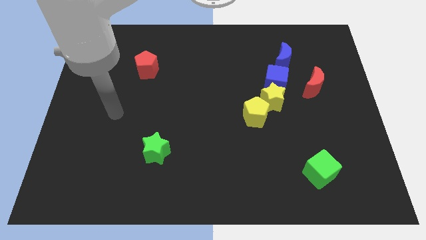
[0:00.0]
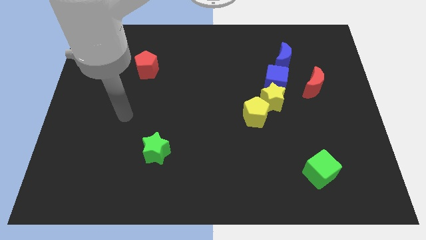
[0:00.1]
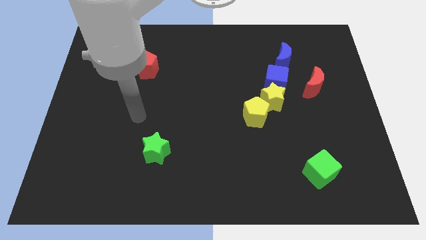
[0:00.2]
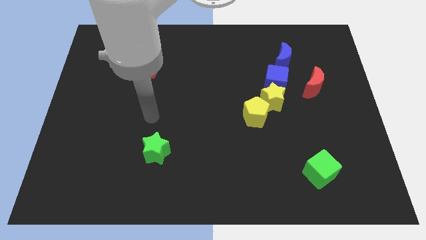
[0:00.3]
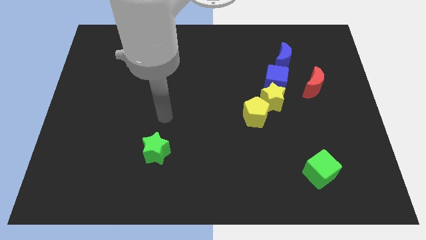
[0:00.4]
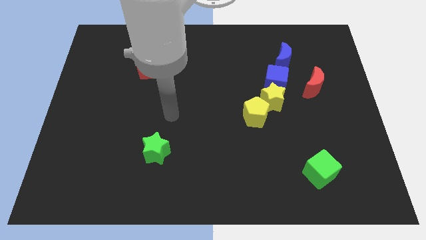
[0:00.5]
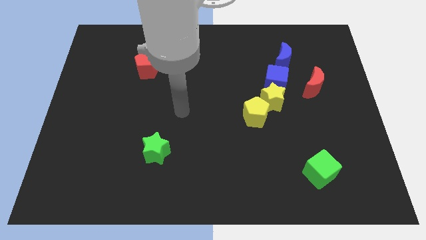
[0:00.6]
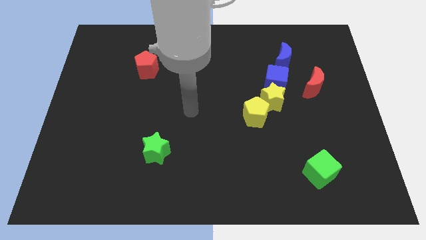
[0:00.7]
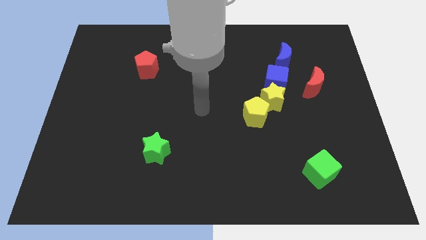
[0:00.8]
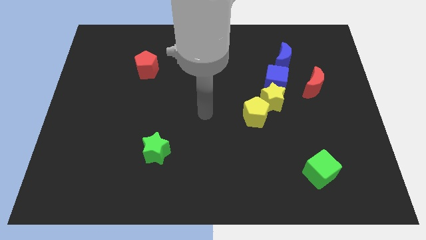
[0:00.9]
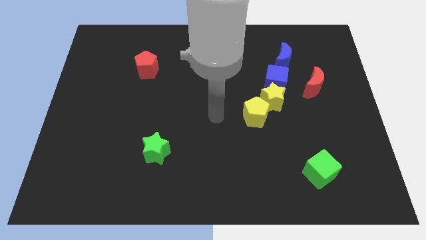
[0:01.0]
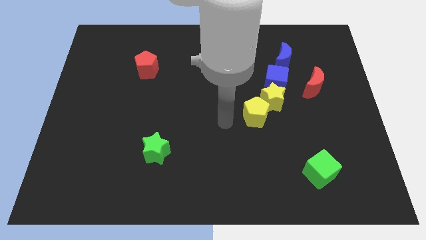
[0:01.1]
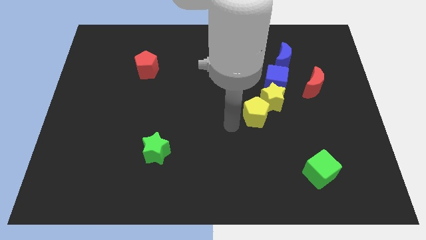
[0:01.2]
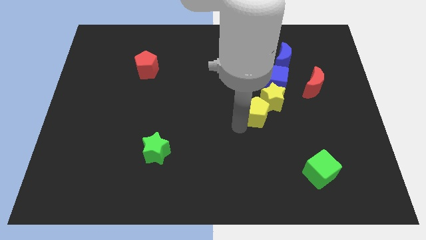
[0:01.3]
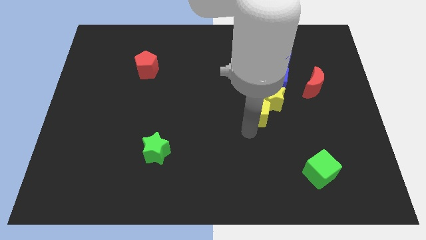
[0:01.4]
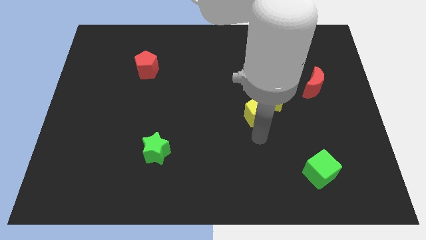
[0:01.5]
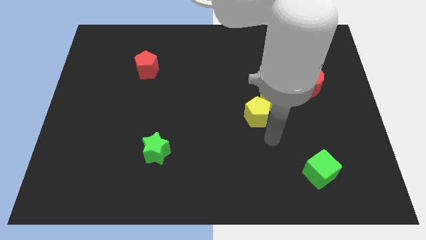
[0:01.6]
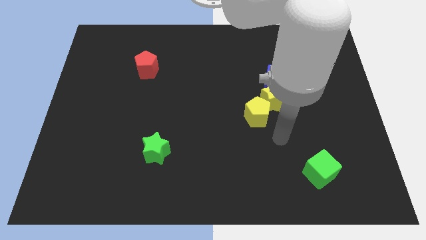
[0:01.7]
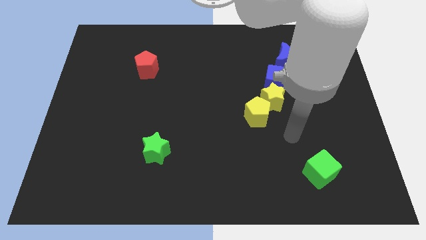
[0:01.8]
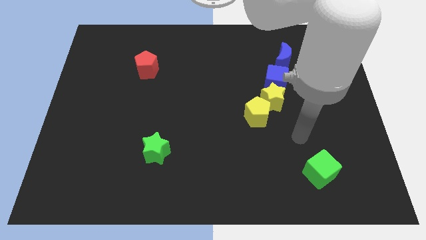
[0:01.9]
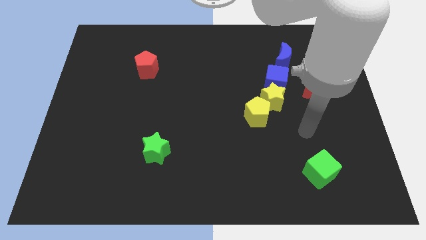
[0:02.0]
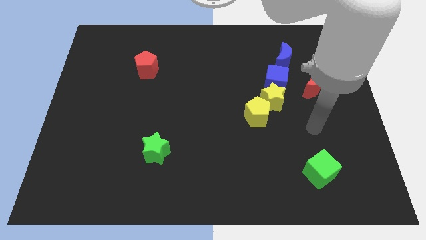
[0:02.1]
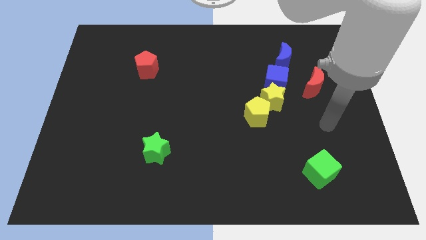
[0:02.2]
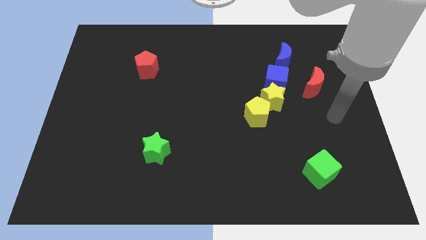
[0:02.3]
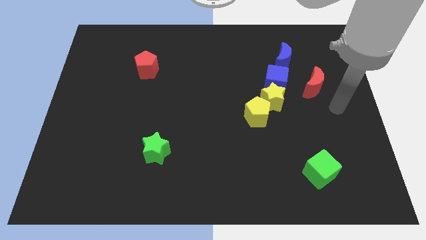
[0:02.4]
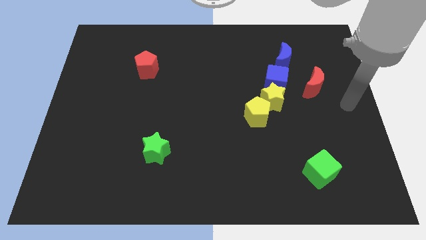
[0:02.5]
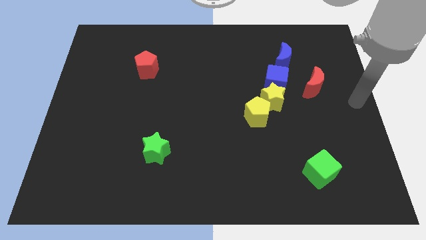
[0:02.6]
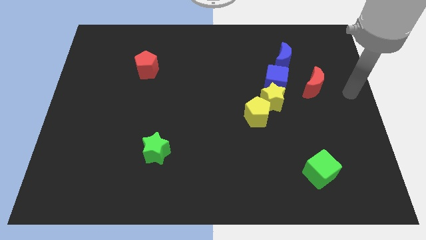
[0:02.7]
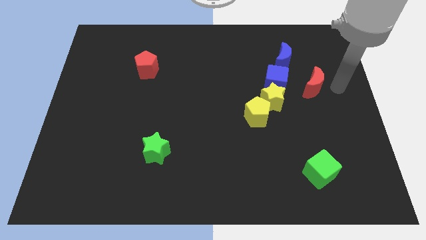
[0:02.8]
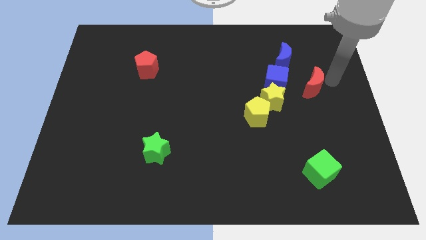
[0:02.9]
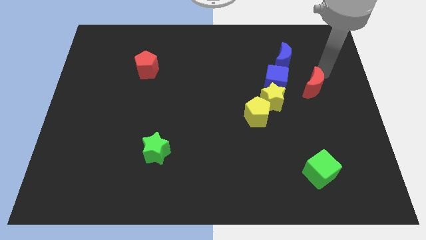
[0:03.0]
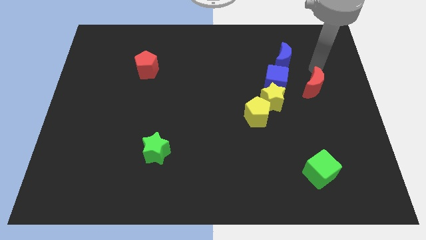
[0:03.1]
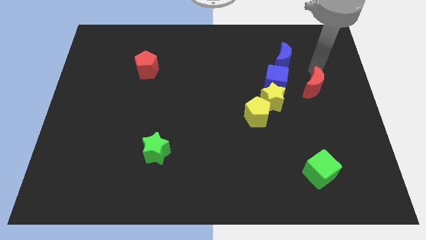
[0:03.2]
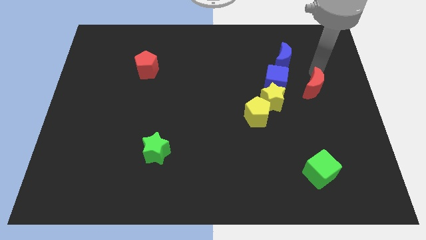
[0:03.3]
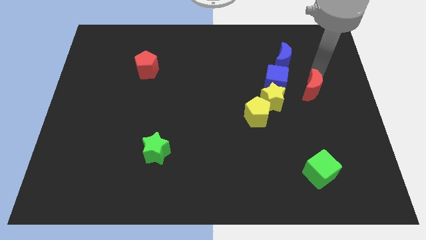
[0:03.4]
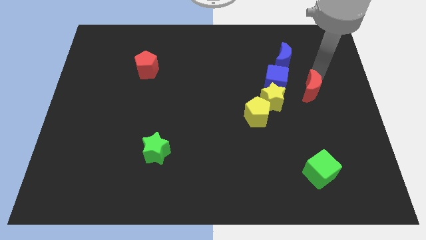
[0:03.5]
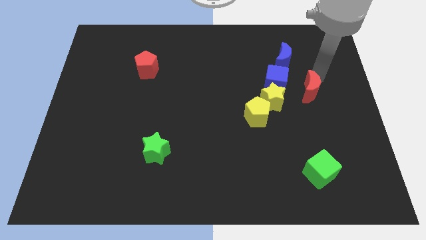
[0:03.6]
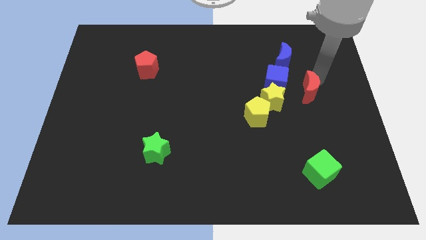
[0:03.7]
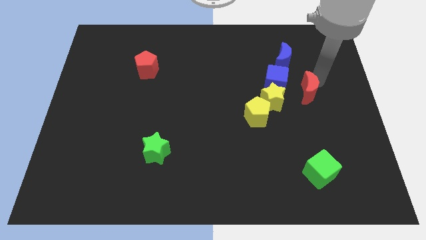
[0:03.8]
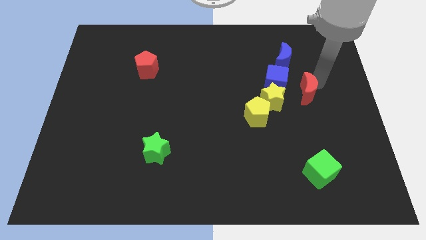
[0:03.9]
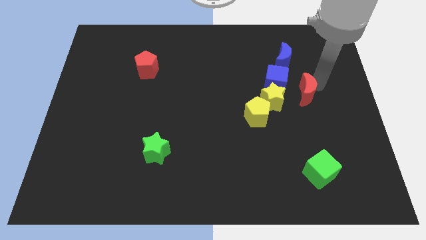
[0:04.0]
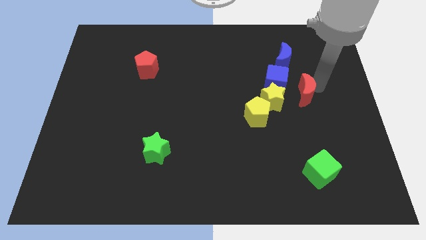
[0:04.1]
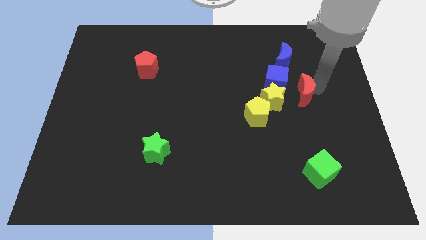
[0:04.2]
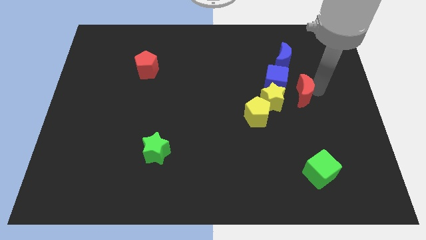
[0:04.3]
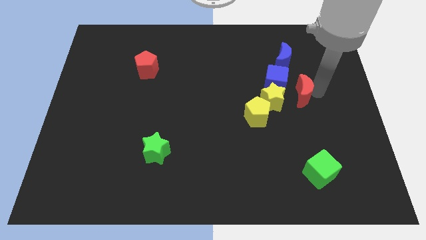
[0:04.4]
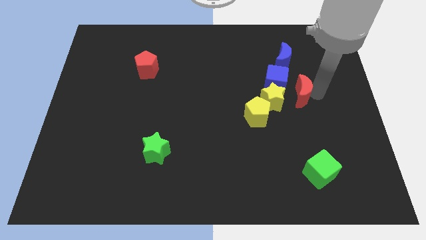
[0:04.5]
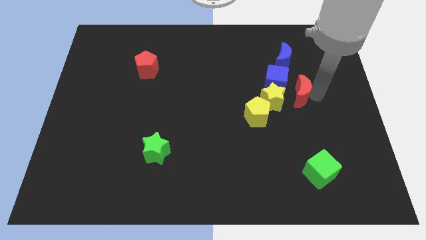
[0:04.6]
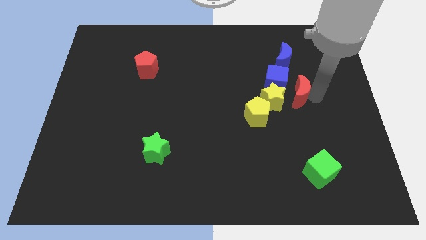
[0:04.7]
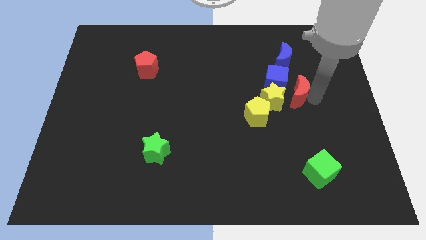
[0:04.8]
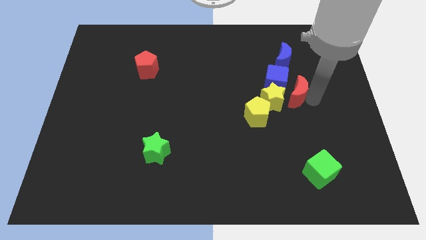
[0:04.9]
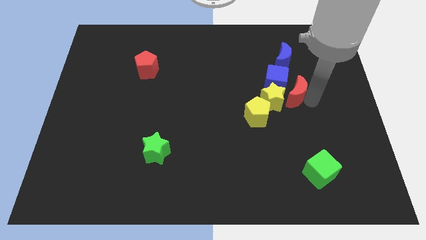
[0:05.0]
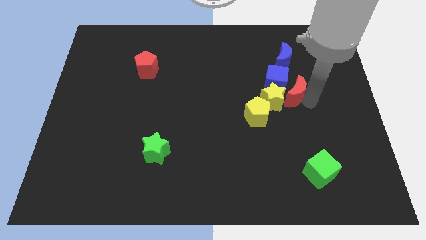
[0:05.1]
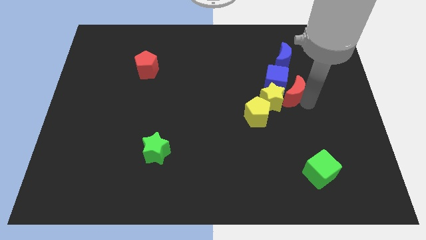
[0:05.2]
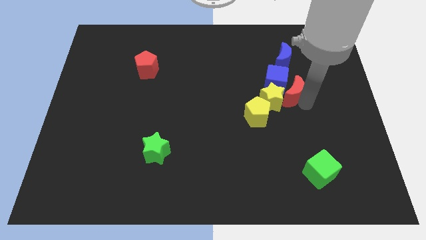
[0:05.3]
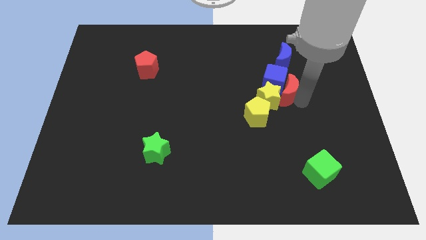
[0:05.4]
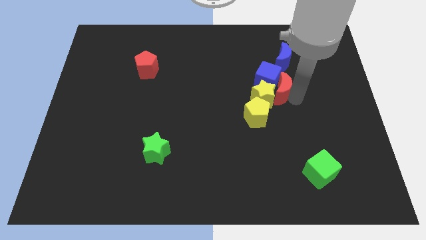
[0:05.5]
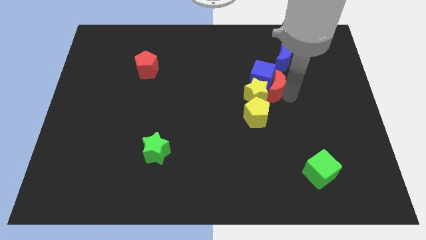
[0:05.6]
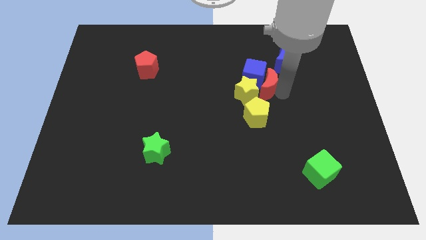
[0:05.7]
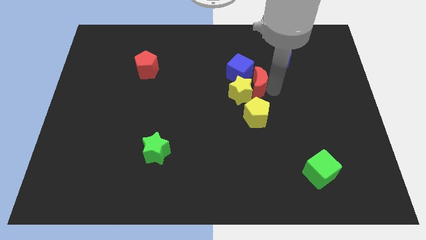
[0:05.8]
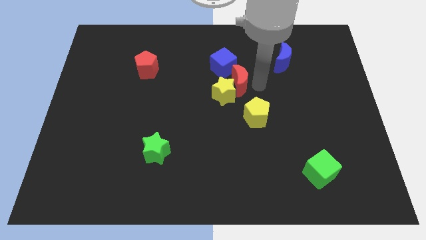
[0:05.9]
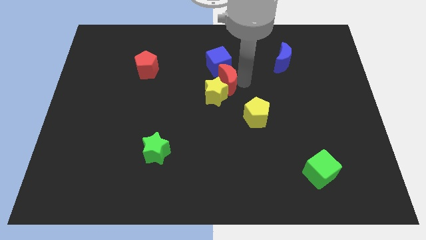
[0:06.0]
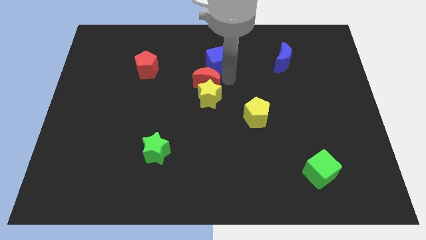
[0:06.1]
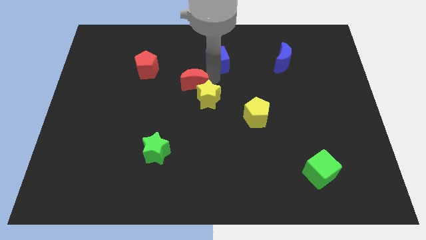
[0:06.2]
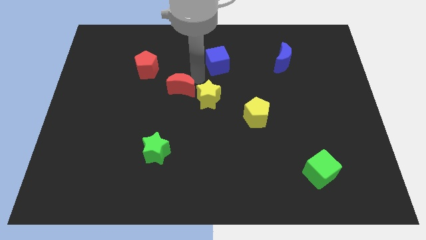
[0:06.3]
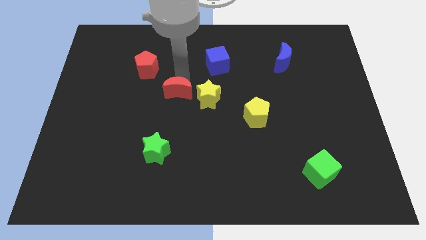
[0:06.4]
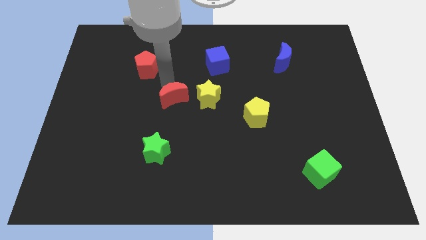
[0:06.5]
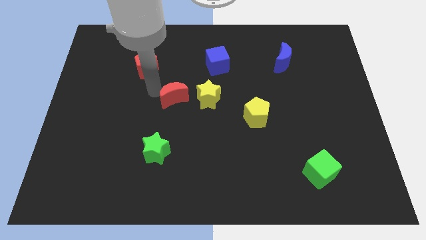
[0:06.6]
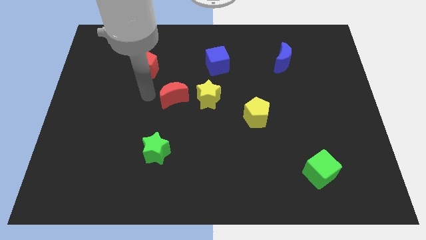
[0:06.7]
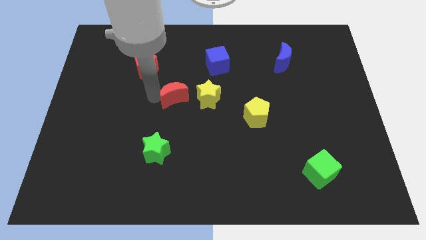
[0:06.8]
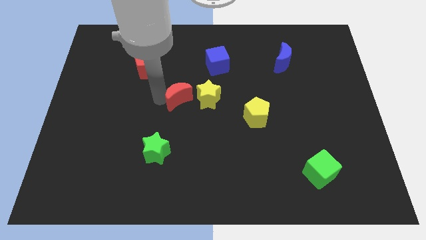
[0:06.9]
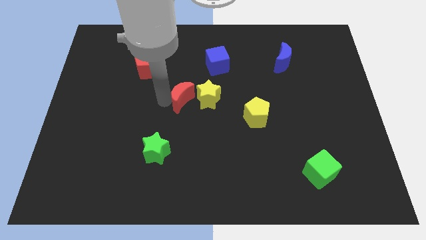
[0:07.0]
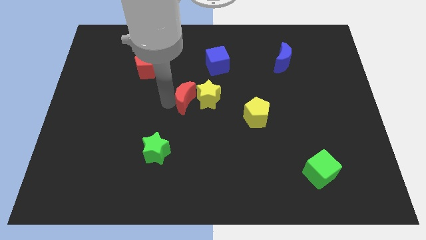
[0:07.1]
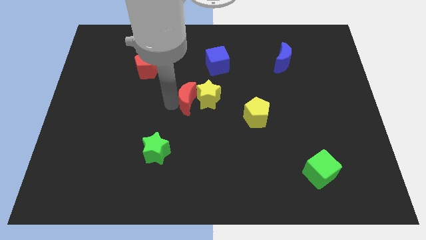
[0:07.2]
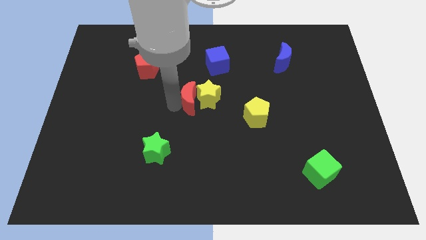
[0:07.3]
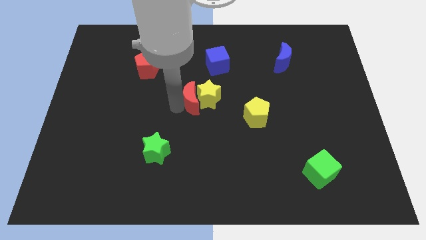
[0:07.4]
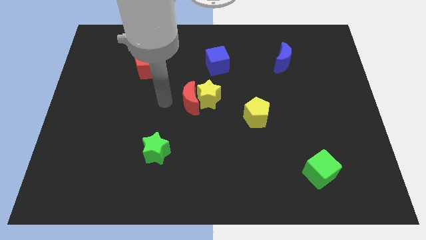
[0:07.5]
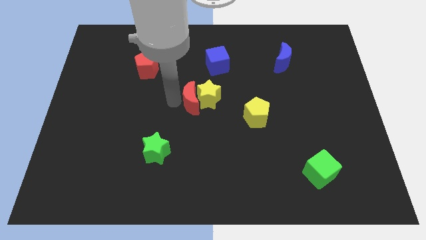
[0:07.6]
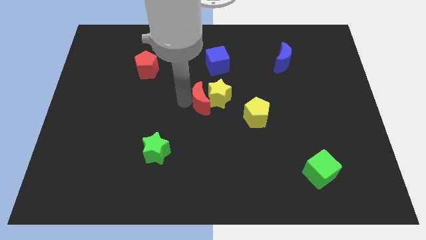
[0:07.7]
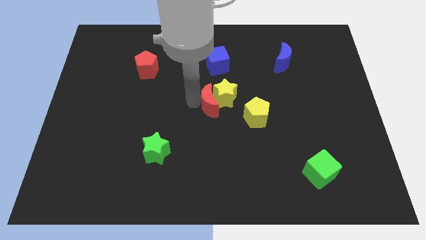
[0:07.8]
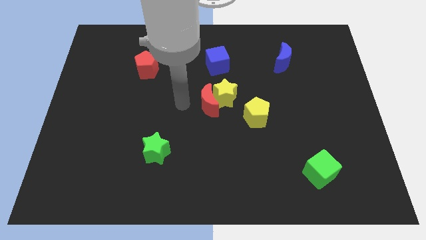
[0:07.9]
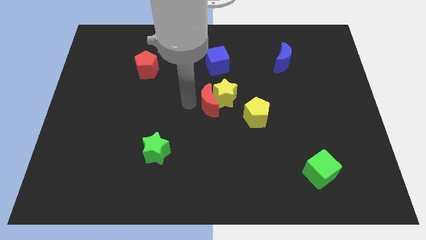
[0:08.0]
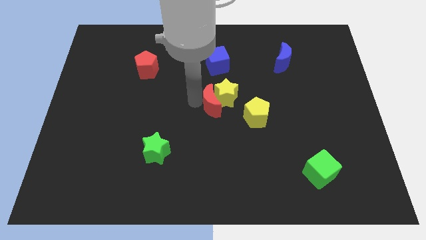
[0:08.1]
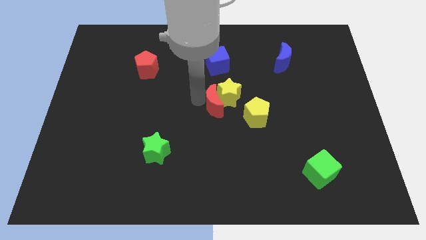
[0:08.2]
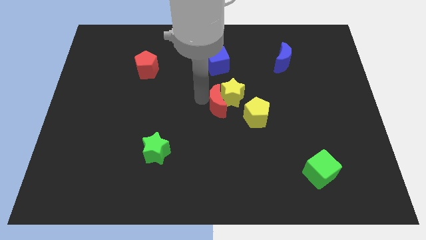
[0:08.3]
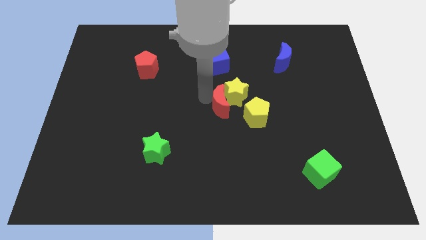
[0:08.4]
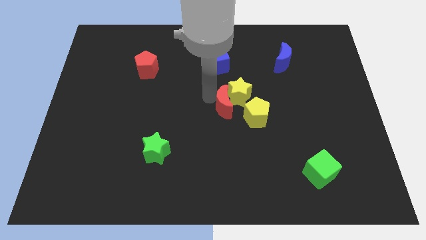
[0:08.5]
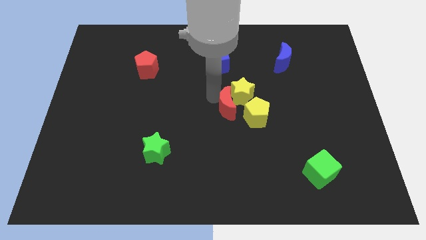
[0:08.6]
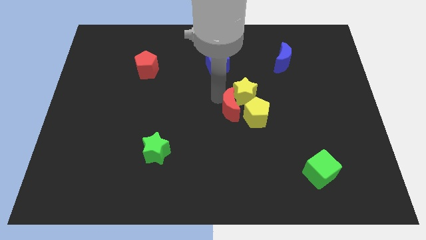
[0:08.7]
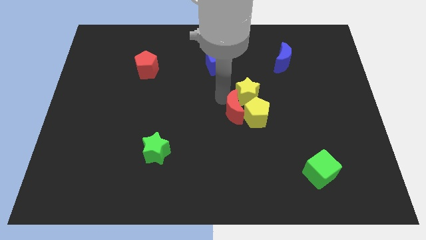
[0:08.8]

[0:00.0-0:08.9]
slide the red moon to the bottom left side of the yellow star
